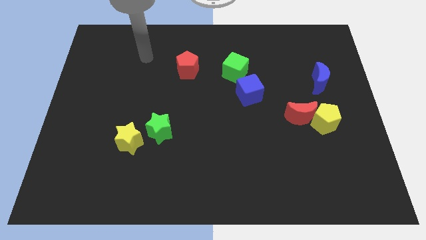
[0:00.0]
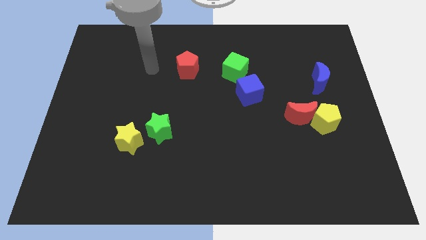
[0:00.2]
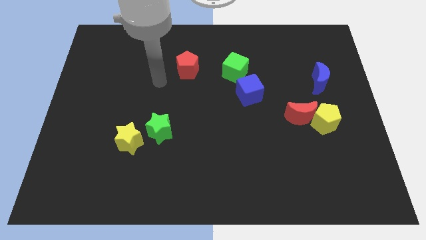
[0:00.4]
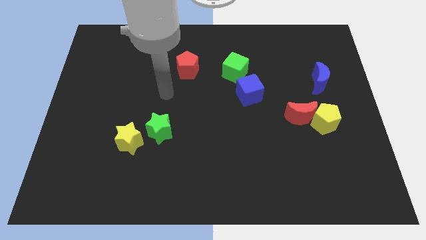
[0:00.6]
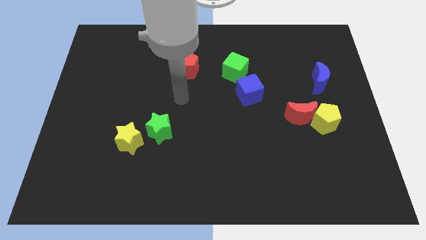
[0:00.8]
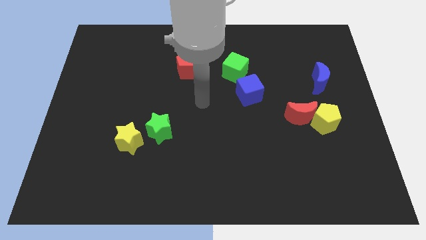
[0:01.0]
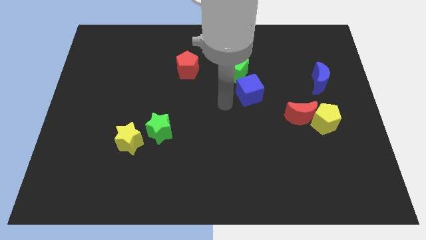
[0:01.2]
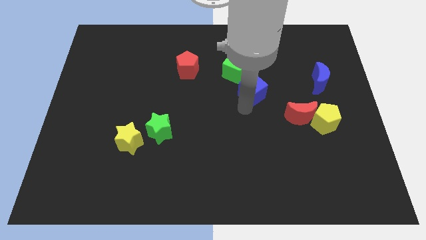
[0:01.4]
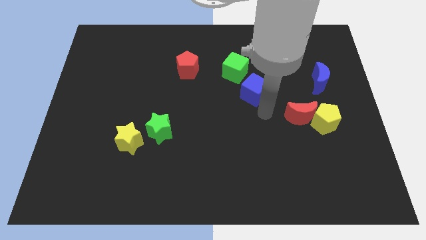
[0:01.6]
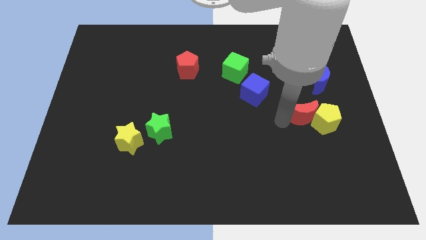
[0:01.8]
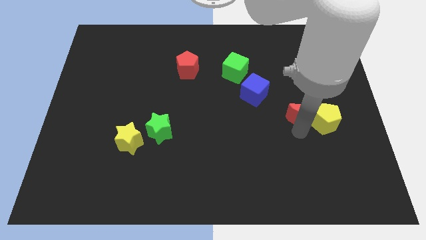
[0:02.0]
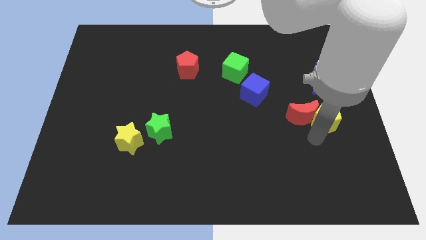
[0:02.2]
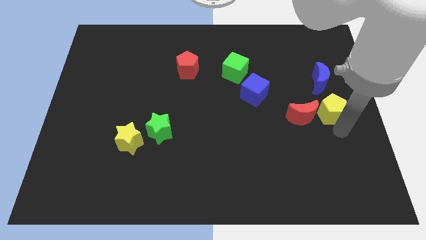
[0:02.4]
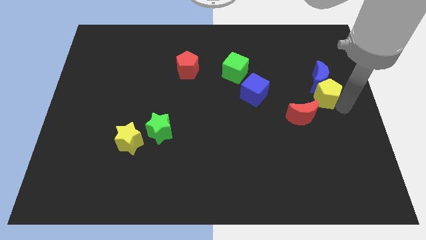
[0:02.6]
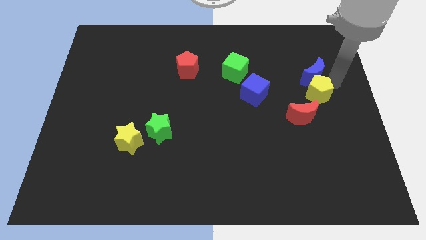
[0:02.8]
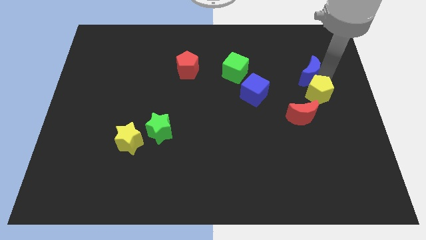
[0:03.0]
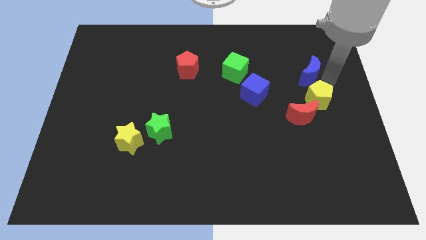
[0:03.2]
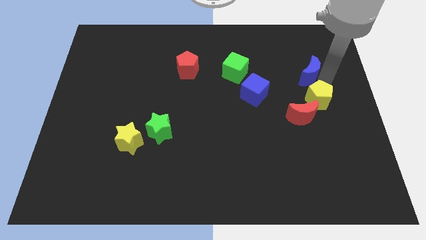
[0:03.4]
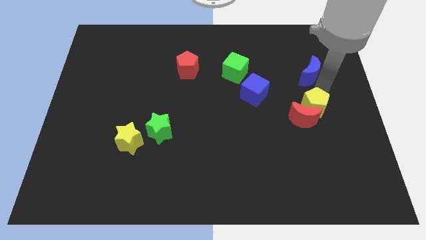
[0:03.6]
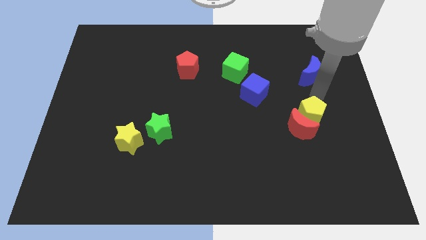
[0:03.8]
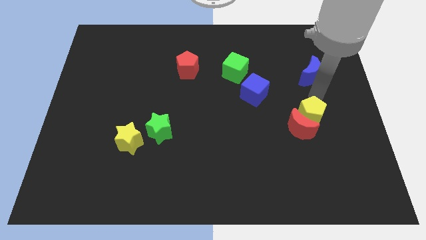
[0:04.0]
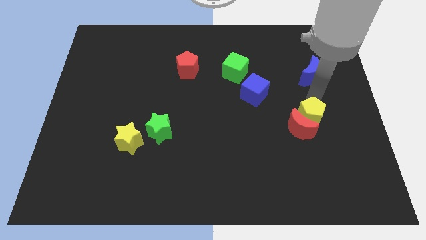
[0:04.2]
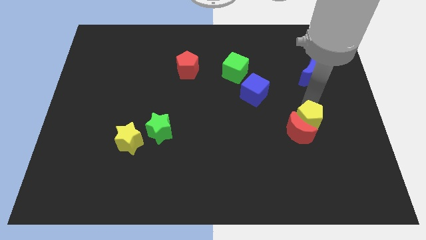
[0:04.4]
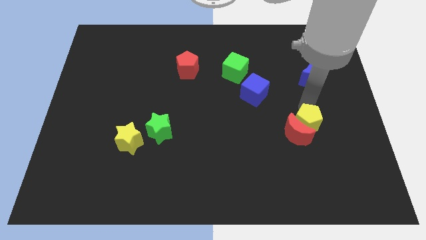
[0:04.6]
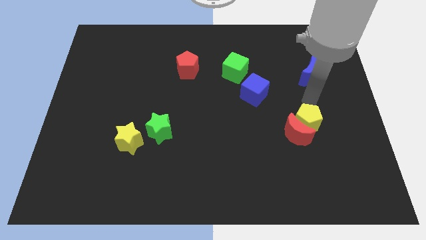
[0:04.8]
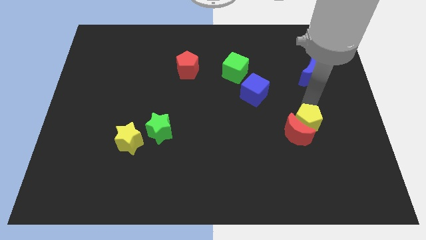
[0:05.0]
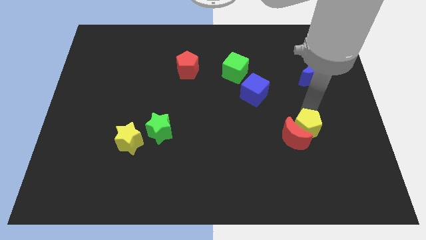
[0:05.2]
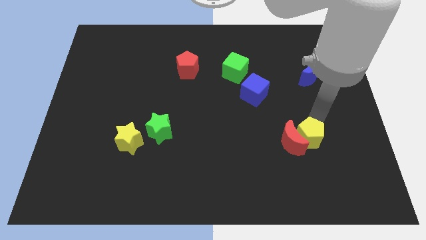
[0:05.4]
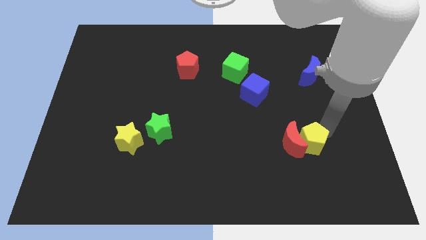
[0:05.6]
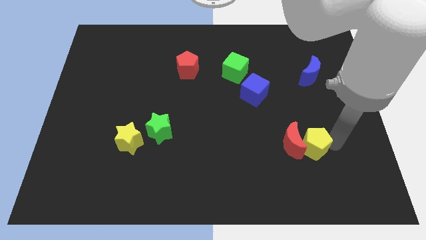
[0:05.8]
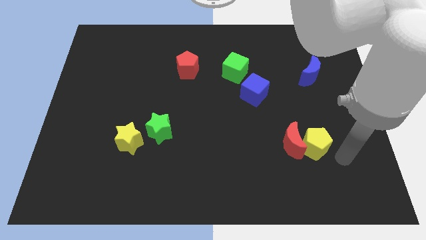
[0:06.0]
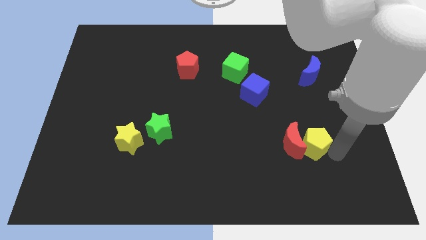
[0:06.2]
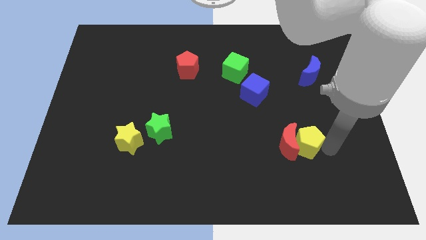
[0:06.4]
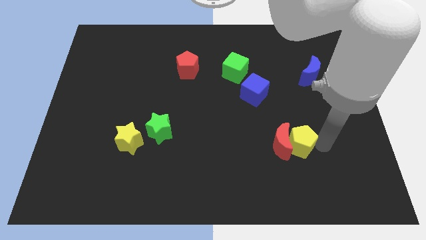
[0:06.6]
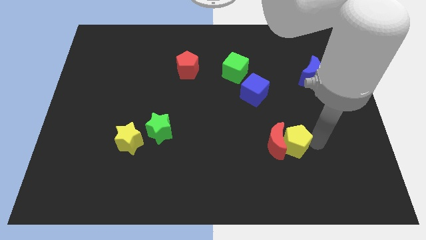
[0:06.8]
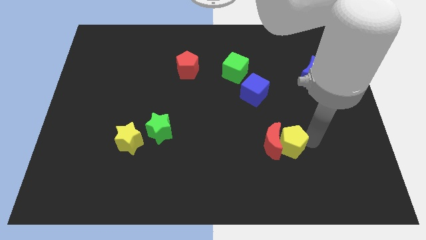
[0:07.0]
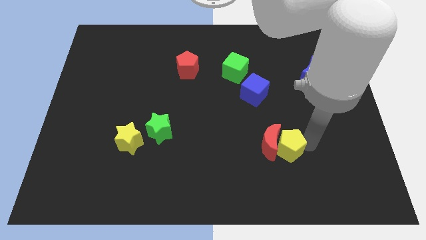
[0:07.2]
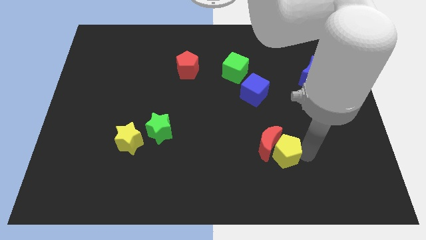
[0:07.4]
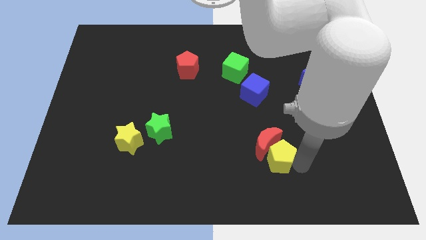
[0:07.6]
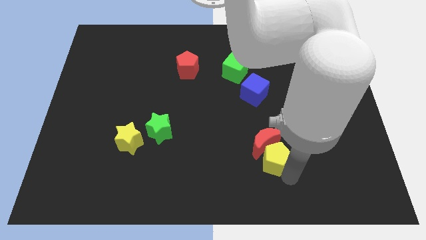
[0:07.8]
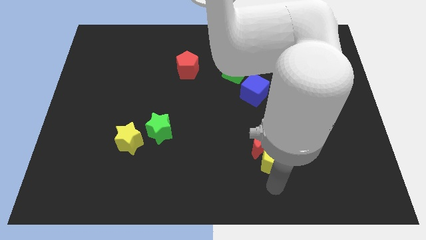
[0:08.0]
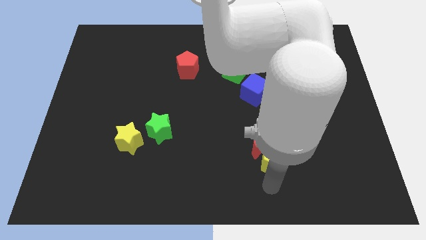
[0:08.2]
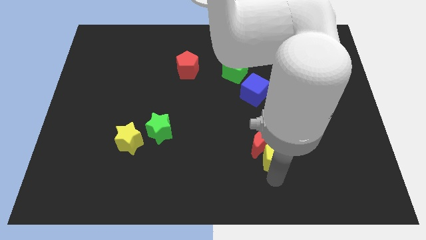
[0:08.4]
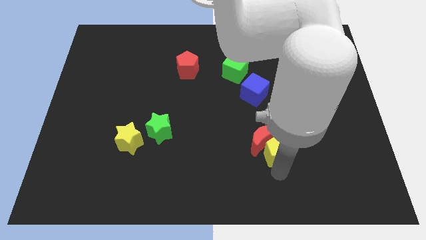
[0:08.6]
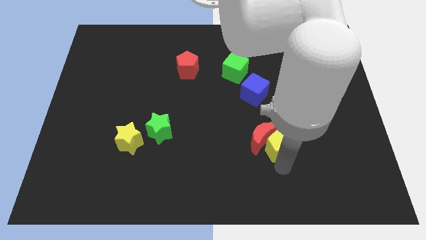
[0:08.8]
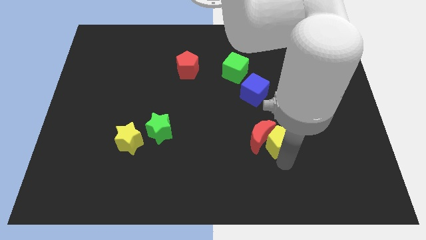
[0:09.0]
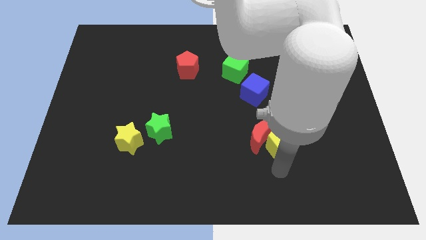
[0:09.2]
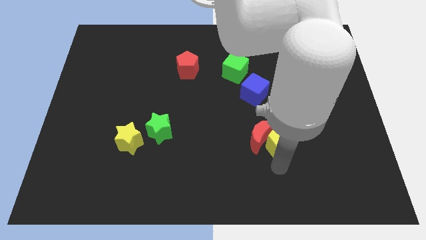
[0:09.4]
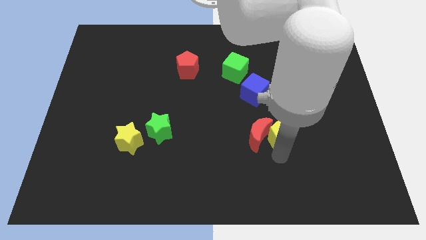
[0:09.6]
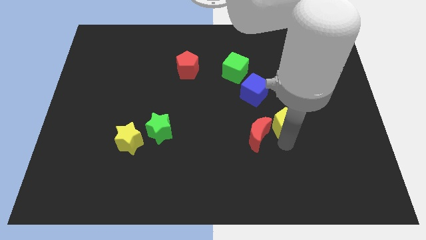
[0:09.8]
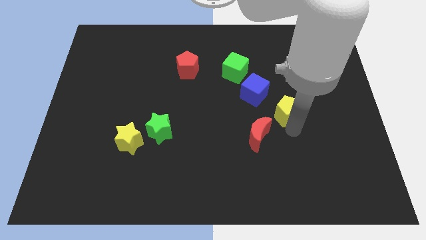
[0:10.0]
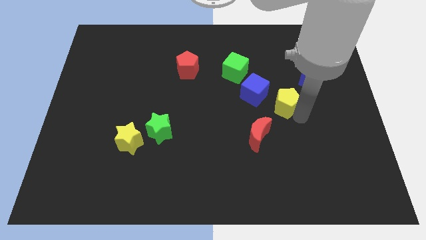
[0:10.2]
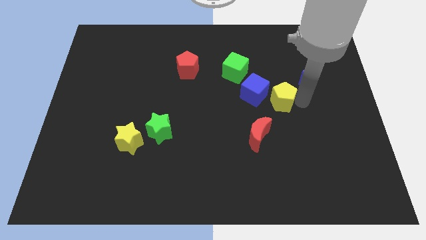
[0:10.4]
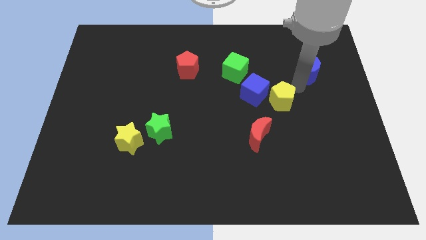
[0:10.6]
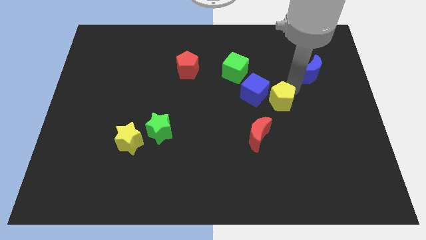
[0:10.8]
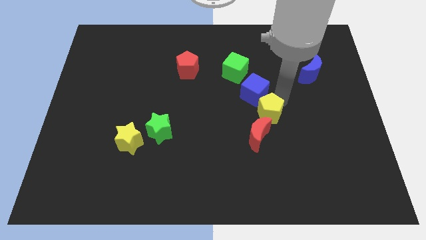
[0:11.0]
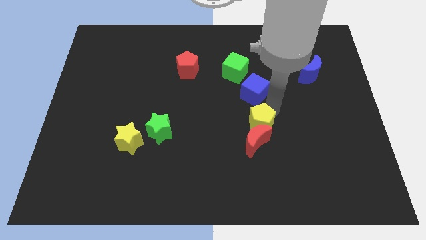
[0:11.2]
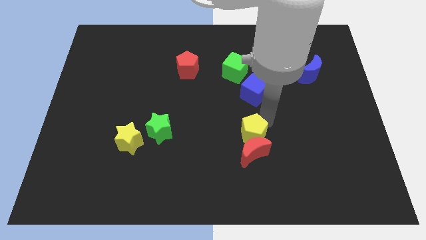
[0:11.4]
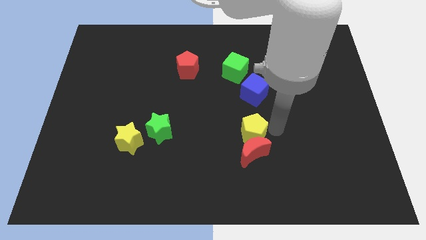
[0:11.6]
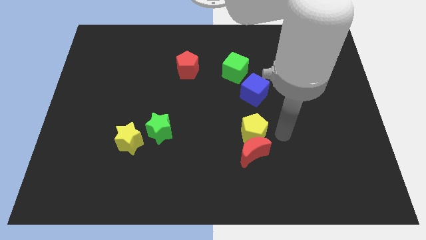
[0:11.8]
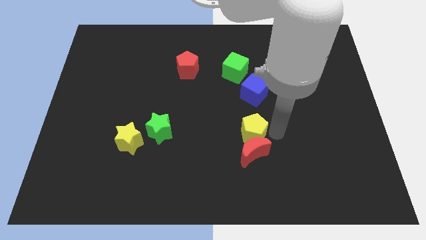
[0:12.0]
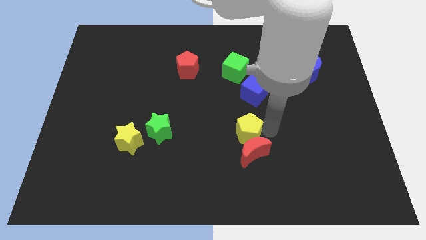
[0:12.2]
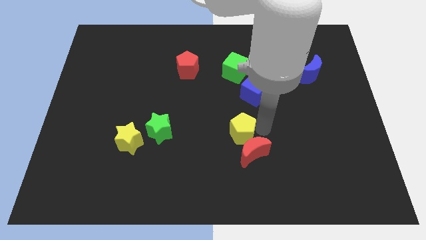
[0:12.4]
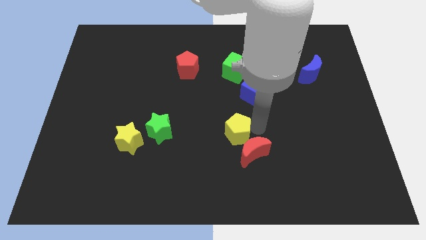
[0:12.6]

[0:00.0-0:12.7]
move the yellow pentagon left

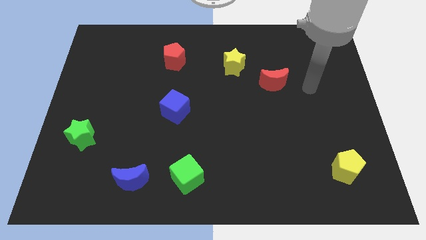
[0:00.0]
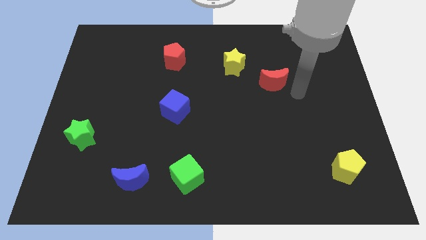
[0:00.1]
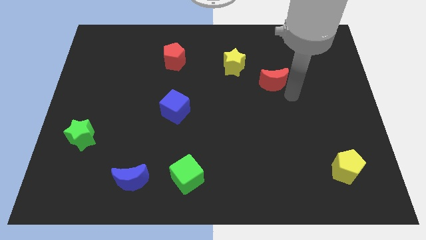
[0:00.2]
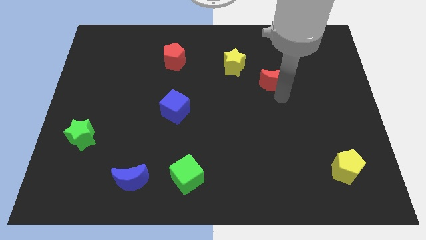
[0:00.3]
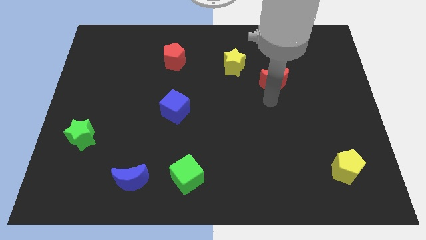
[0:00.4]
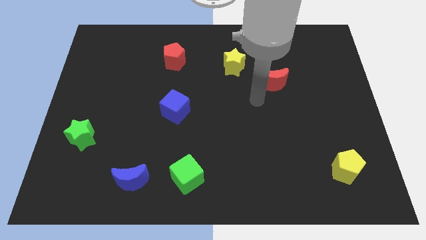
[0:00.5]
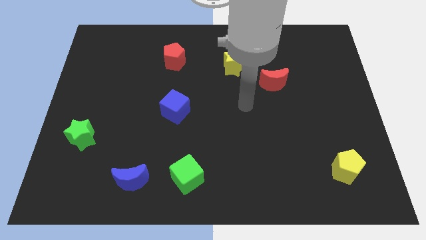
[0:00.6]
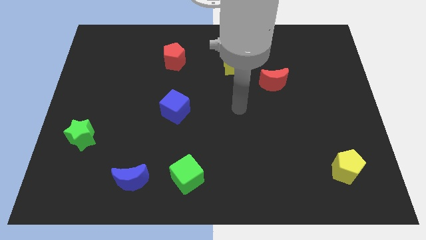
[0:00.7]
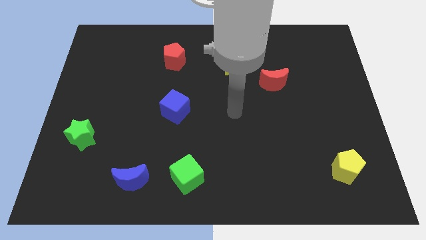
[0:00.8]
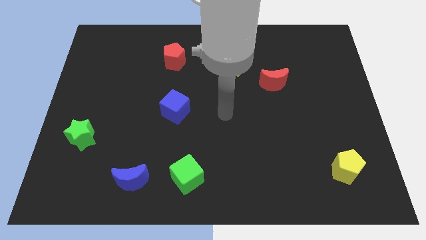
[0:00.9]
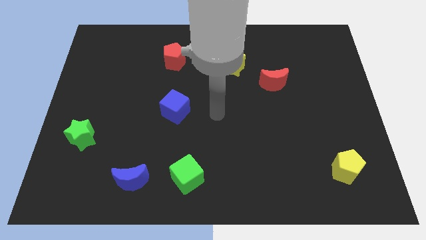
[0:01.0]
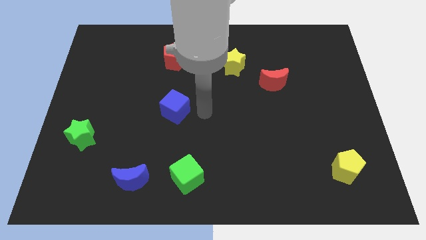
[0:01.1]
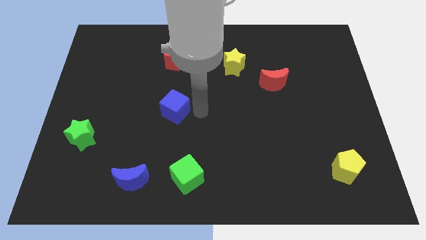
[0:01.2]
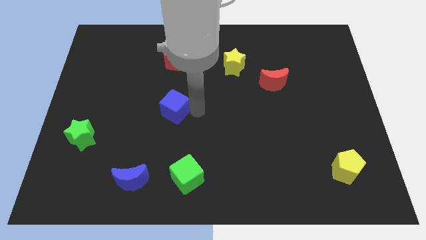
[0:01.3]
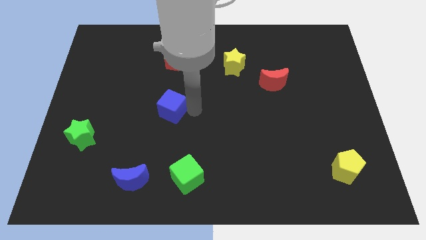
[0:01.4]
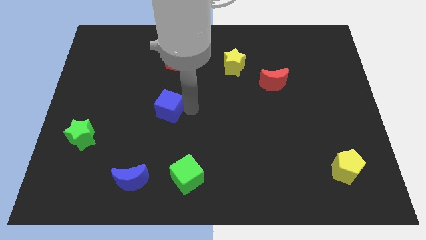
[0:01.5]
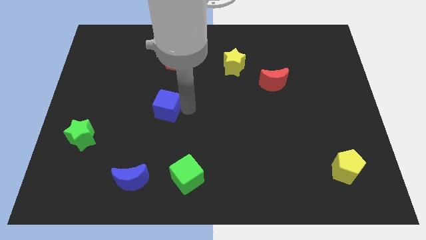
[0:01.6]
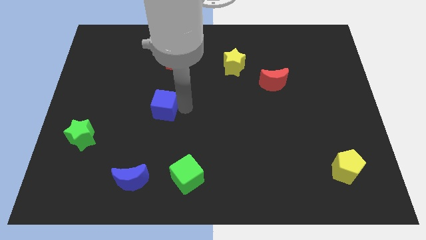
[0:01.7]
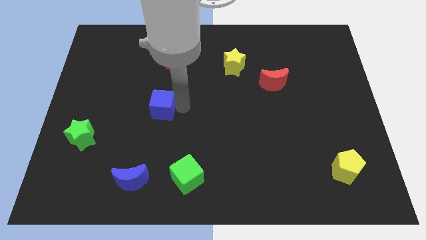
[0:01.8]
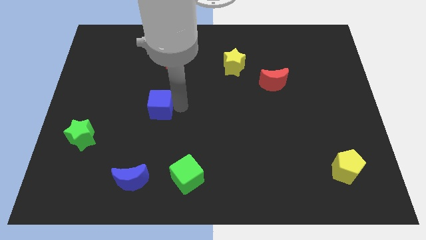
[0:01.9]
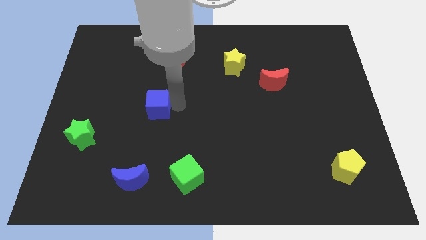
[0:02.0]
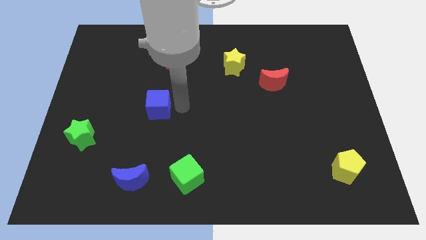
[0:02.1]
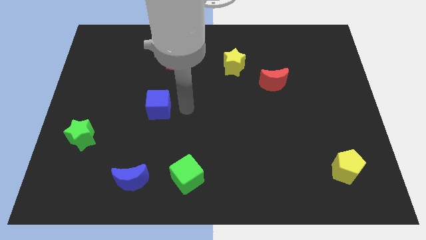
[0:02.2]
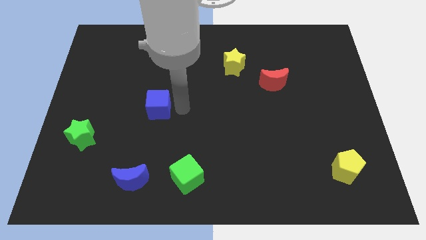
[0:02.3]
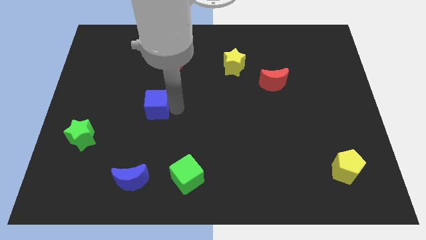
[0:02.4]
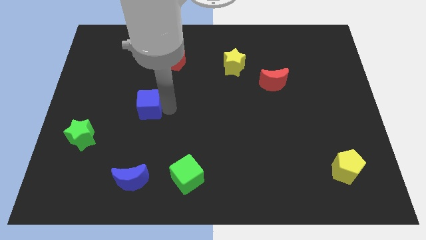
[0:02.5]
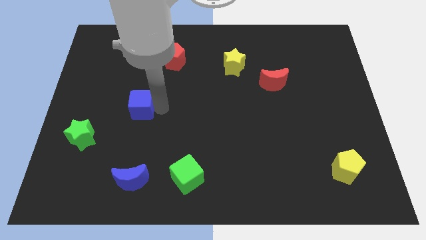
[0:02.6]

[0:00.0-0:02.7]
move the blue cube to the left a little bit
